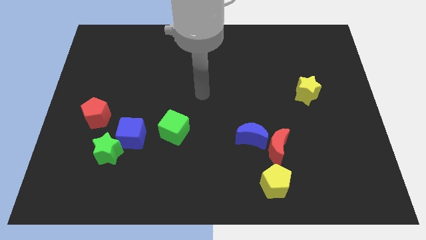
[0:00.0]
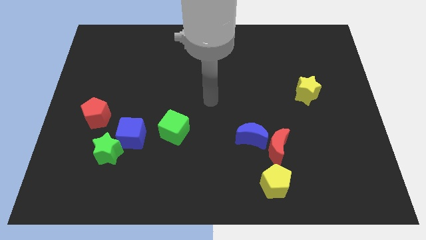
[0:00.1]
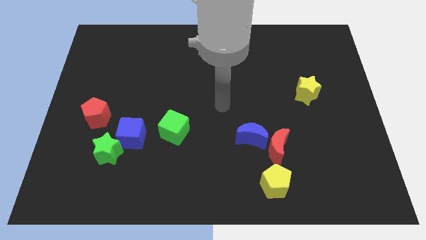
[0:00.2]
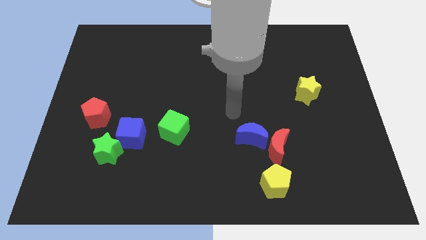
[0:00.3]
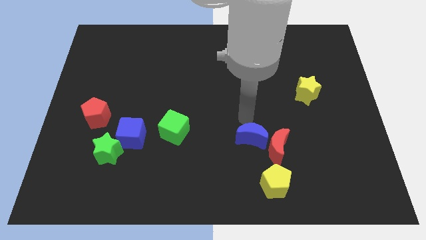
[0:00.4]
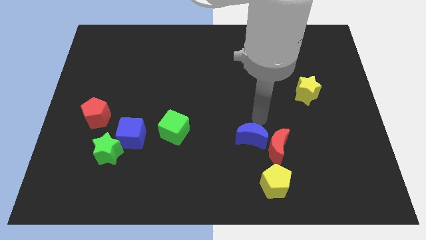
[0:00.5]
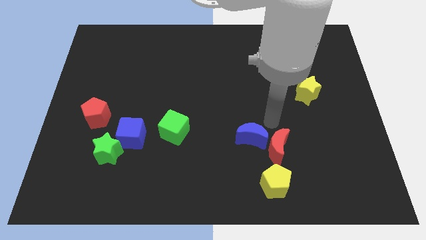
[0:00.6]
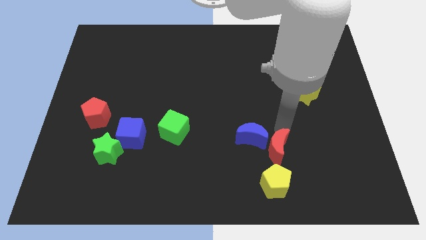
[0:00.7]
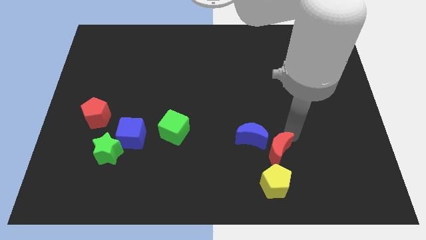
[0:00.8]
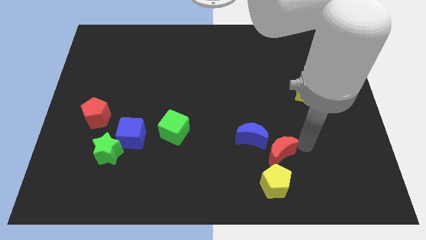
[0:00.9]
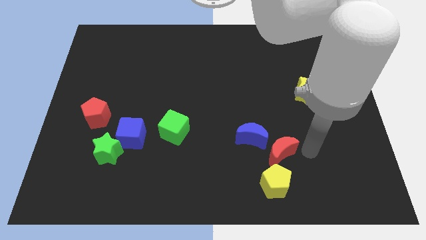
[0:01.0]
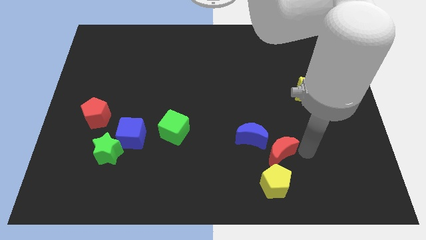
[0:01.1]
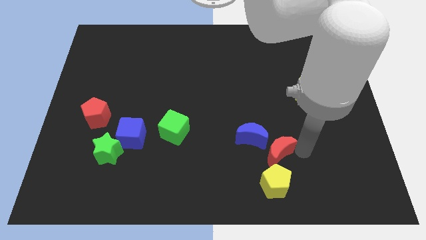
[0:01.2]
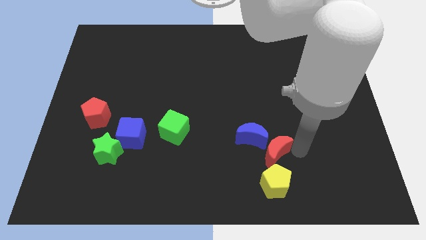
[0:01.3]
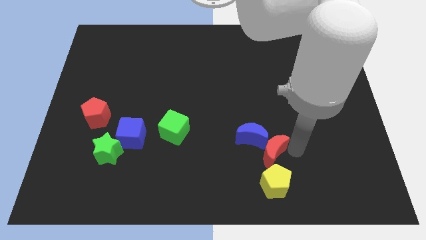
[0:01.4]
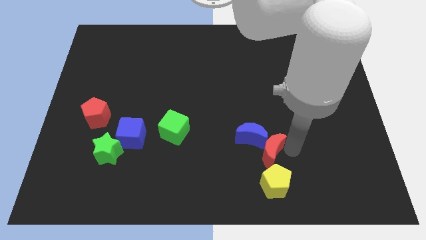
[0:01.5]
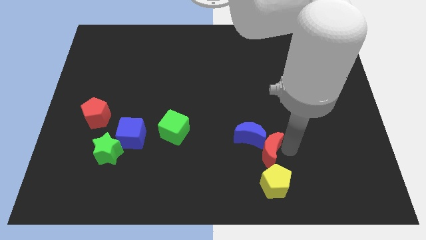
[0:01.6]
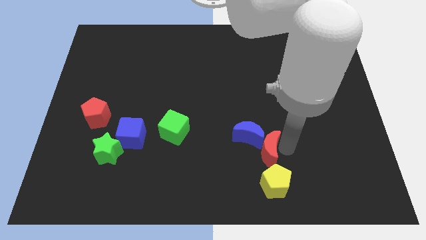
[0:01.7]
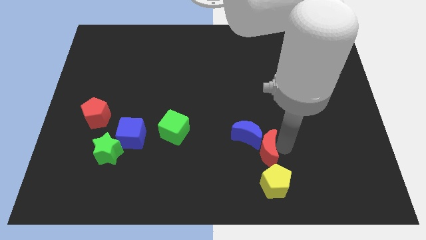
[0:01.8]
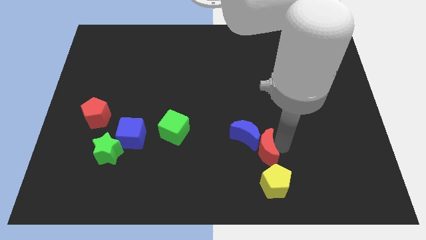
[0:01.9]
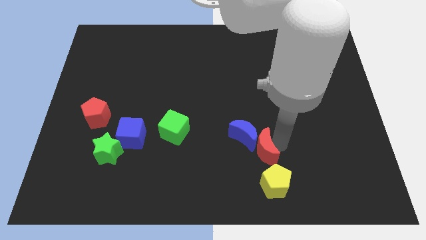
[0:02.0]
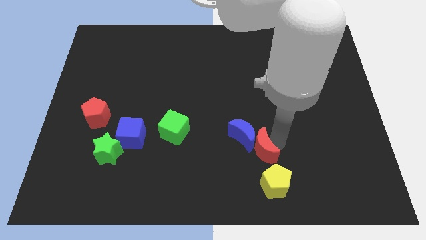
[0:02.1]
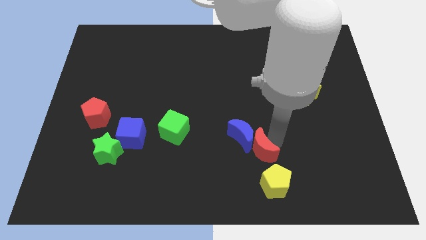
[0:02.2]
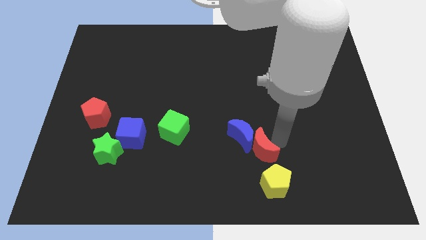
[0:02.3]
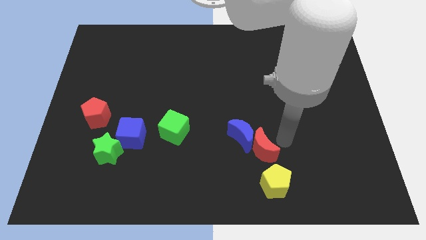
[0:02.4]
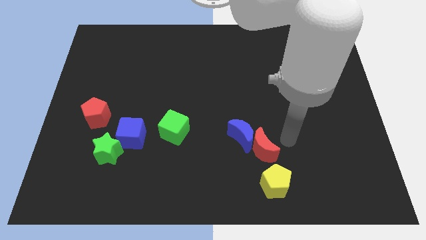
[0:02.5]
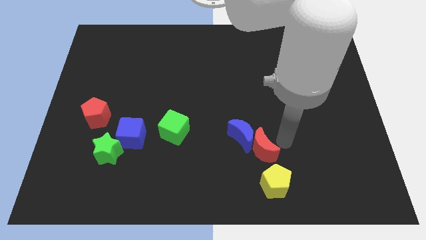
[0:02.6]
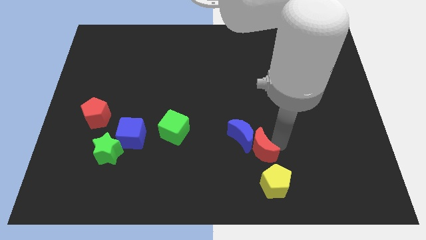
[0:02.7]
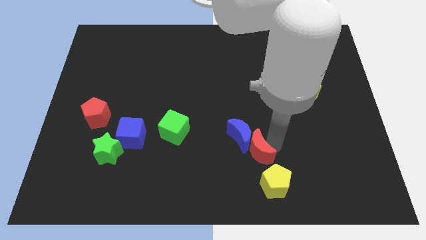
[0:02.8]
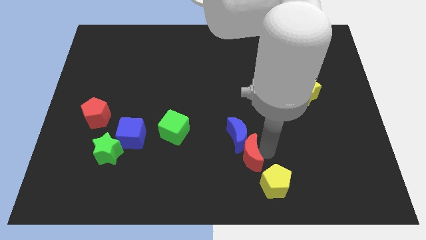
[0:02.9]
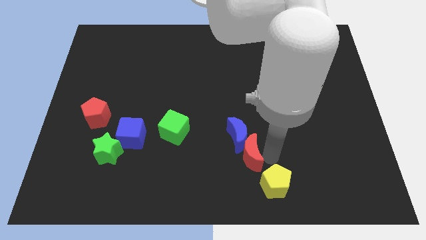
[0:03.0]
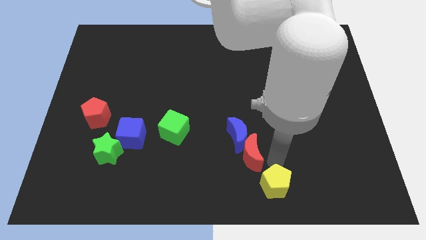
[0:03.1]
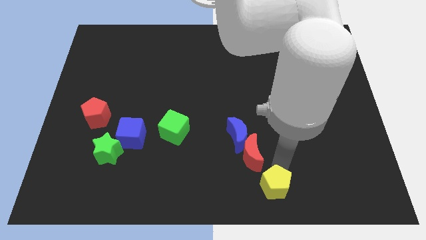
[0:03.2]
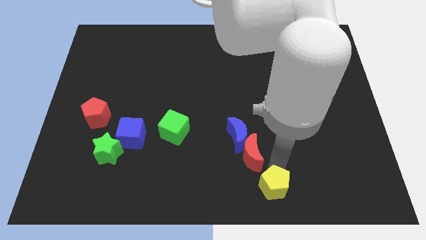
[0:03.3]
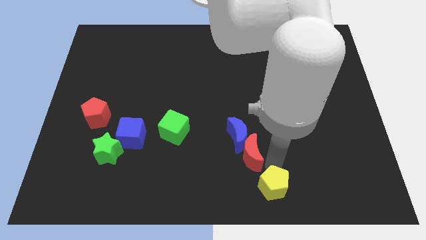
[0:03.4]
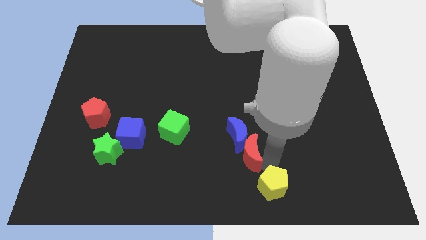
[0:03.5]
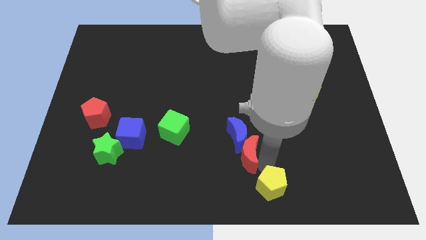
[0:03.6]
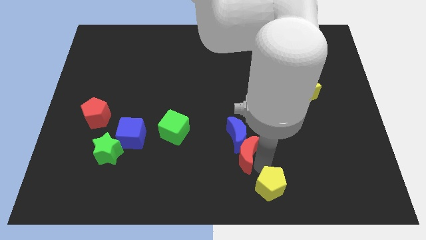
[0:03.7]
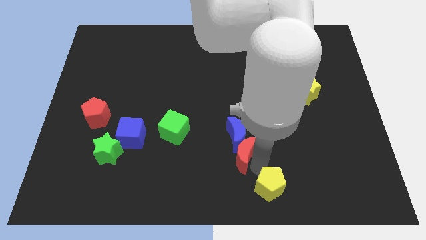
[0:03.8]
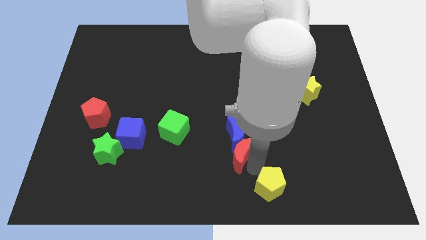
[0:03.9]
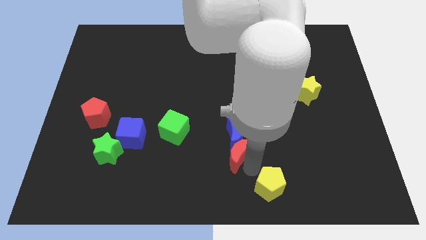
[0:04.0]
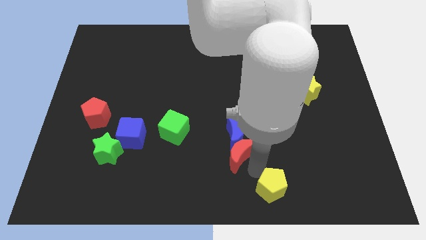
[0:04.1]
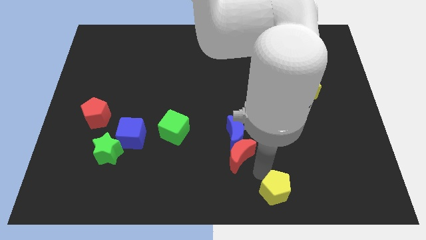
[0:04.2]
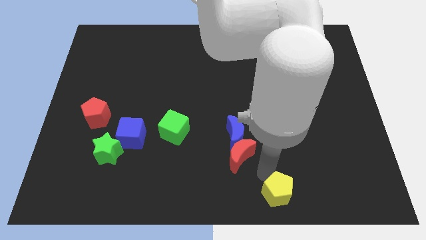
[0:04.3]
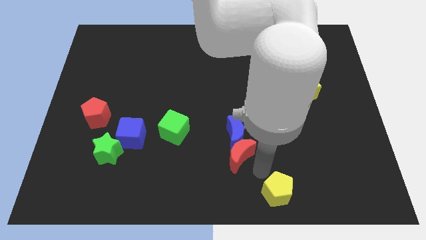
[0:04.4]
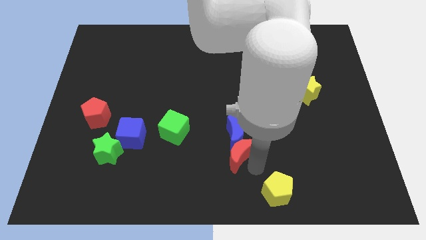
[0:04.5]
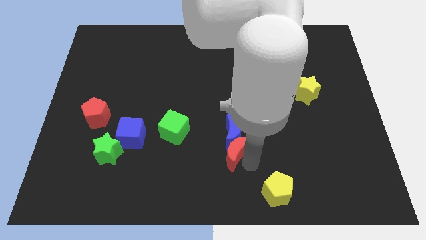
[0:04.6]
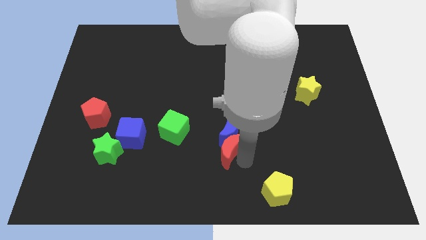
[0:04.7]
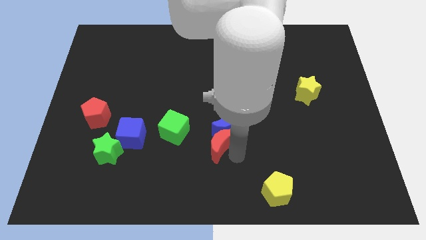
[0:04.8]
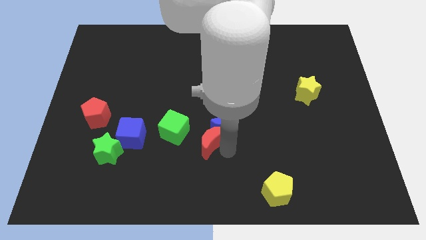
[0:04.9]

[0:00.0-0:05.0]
slide the red moon to the left of the blue moon

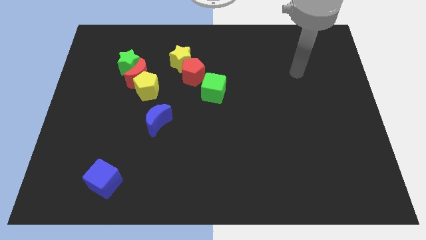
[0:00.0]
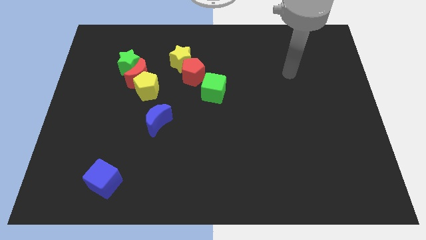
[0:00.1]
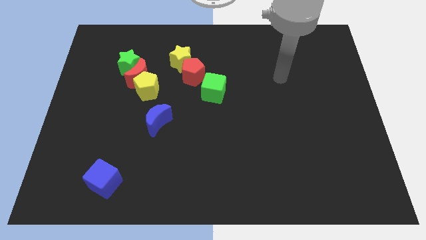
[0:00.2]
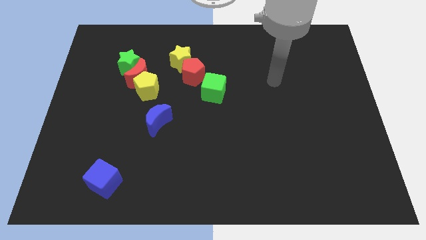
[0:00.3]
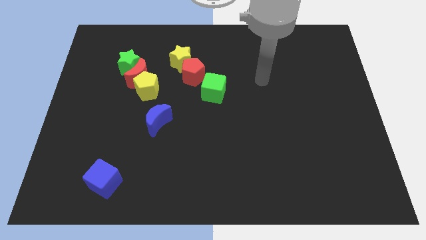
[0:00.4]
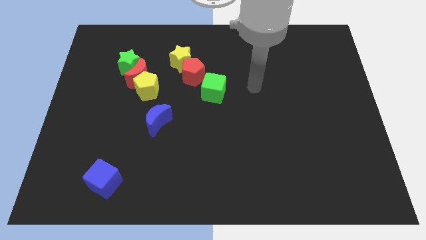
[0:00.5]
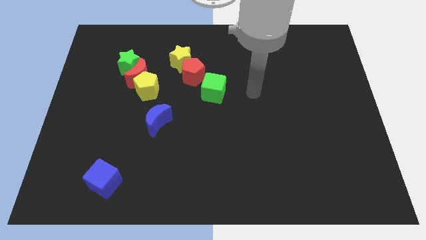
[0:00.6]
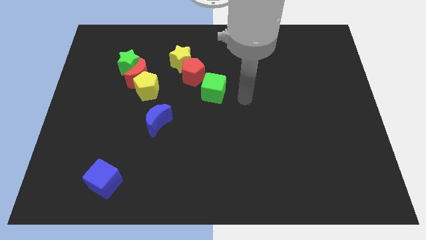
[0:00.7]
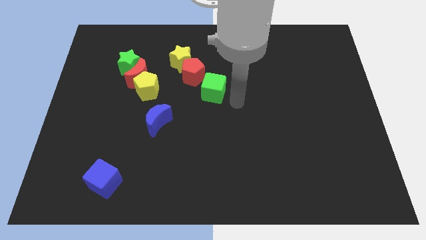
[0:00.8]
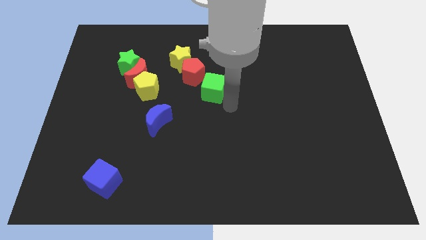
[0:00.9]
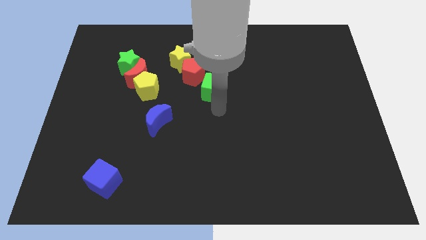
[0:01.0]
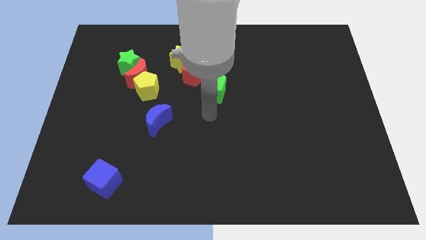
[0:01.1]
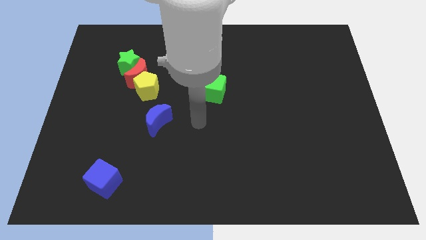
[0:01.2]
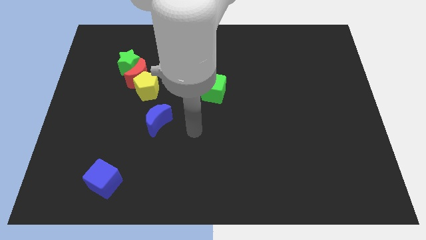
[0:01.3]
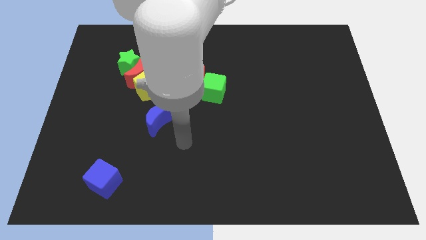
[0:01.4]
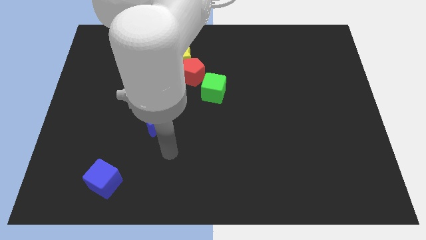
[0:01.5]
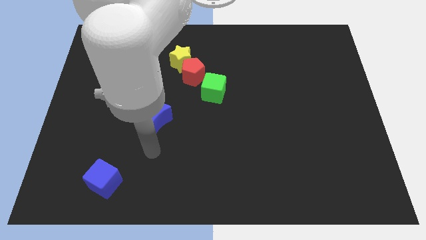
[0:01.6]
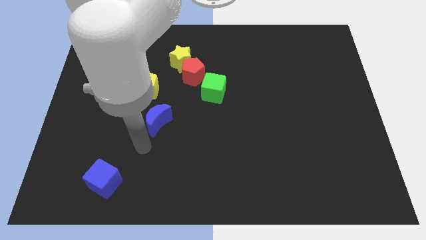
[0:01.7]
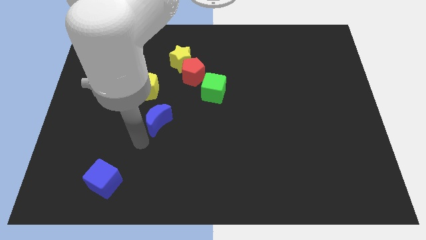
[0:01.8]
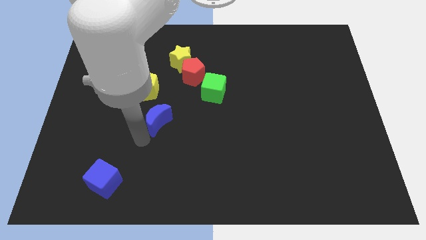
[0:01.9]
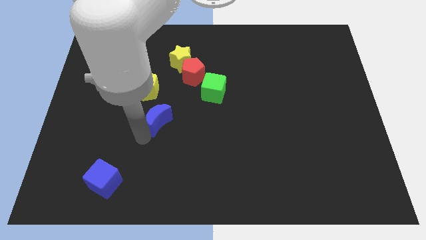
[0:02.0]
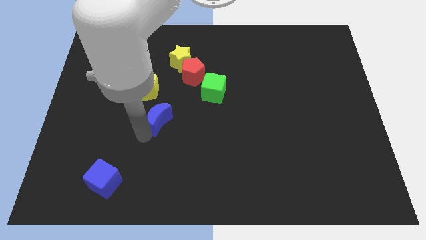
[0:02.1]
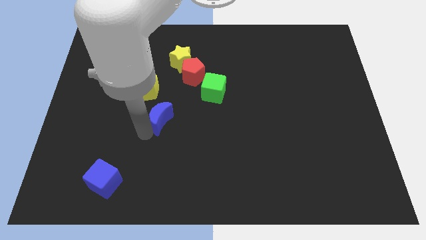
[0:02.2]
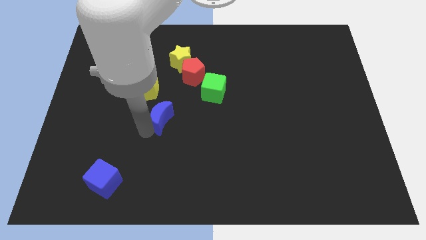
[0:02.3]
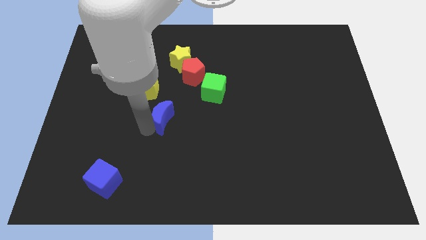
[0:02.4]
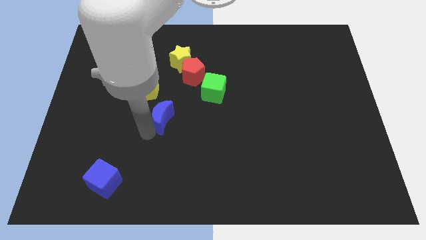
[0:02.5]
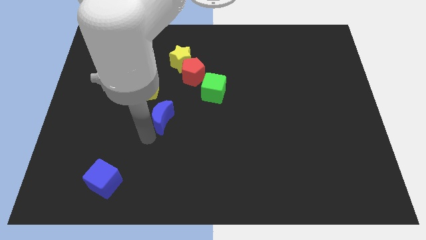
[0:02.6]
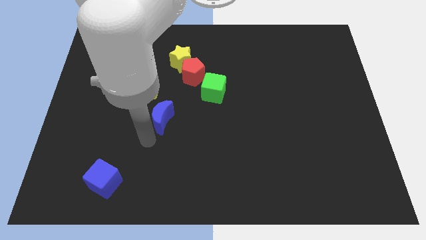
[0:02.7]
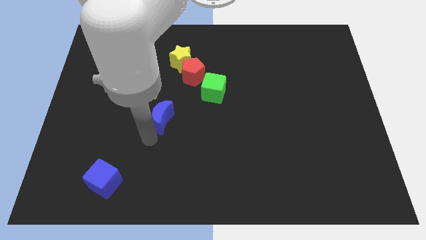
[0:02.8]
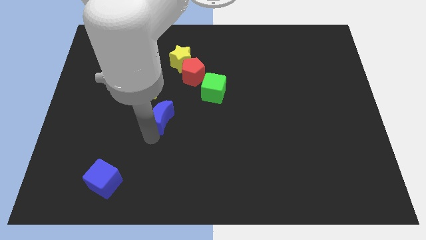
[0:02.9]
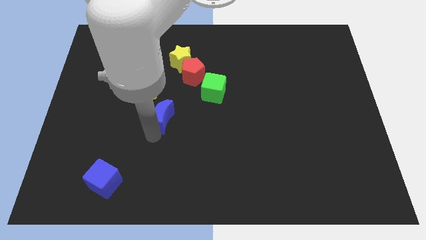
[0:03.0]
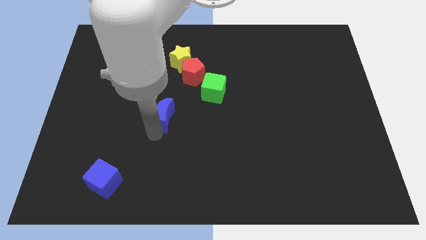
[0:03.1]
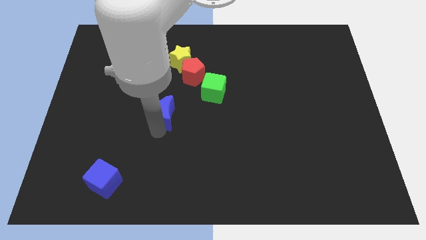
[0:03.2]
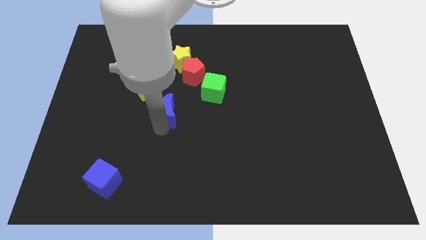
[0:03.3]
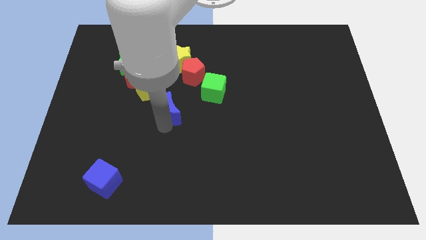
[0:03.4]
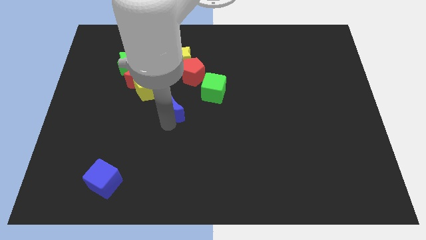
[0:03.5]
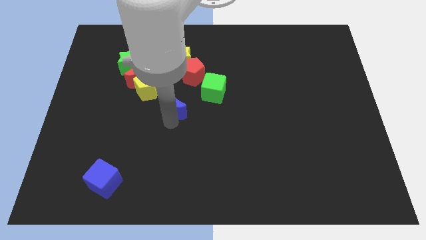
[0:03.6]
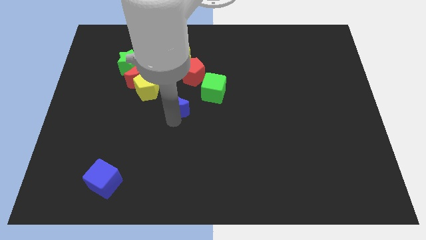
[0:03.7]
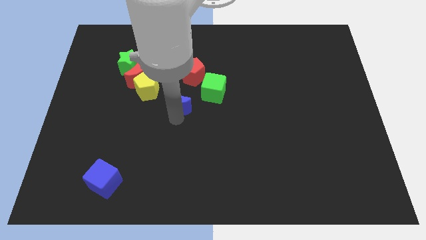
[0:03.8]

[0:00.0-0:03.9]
move the blue moon to the right side of the yellow pentagon
